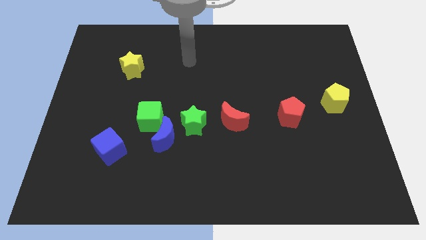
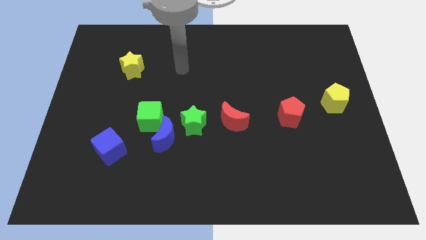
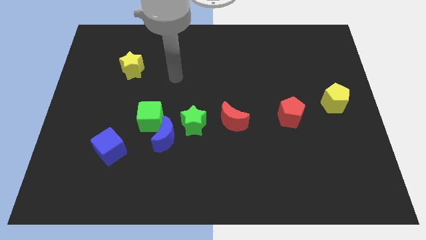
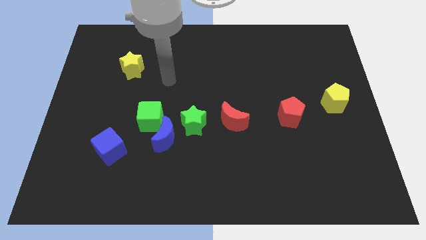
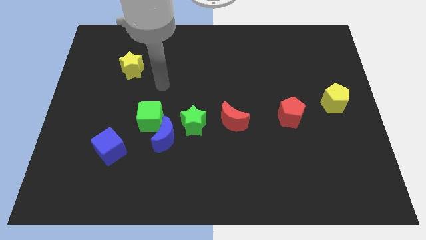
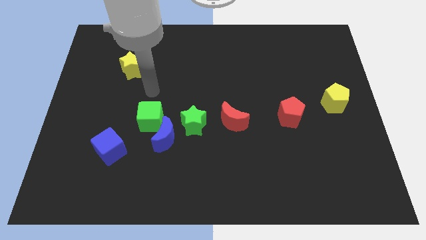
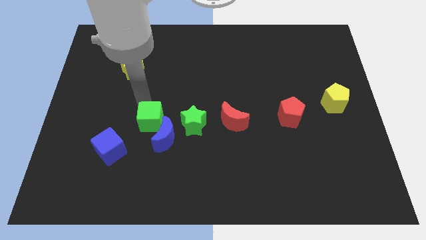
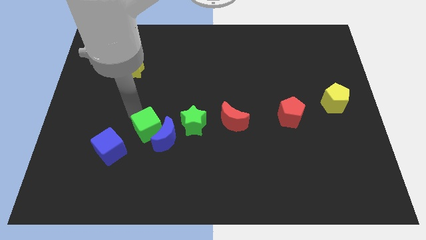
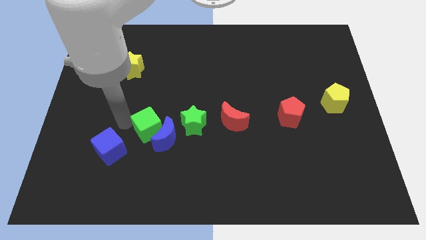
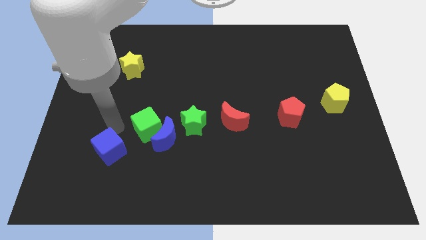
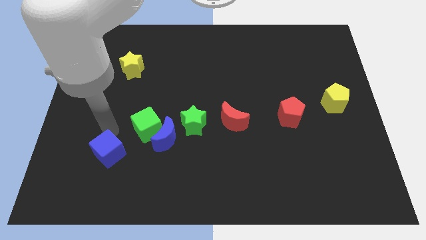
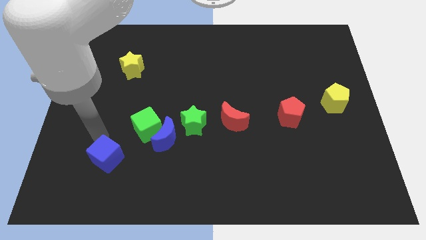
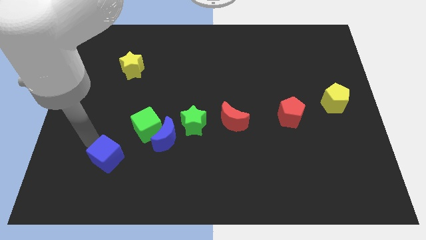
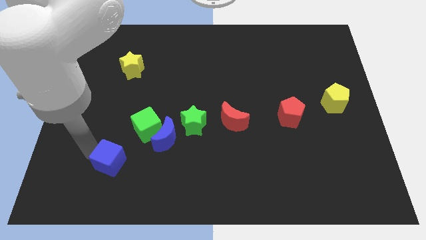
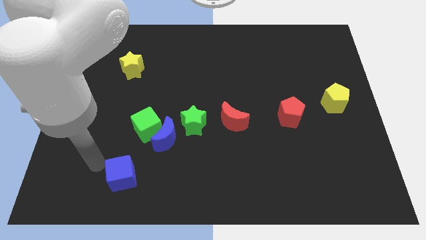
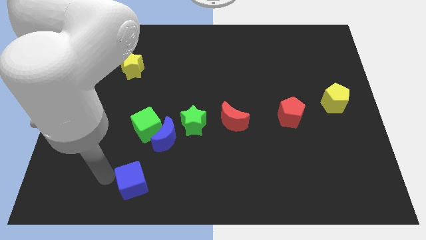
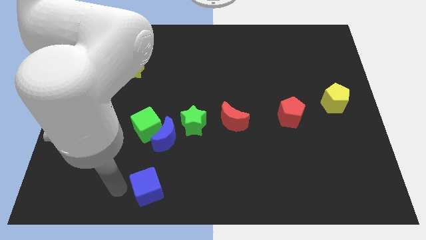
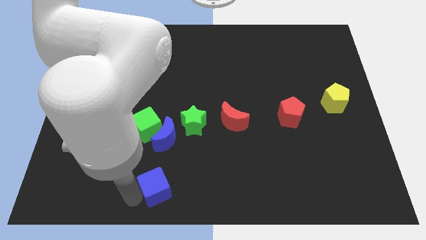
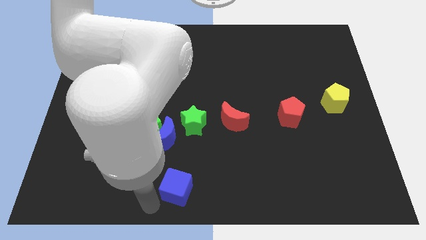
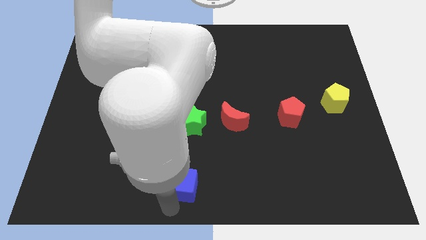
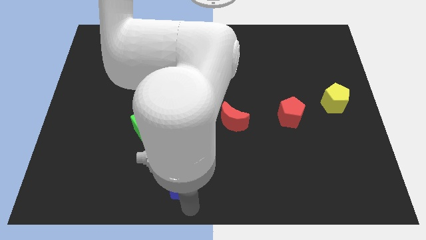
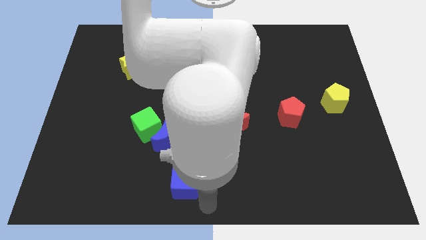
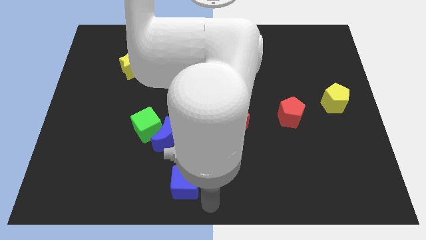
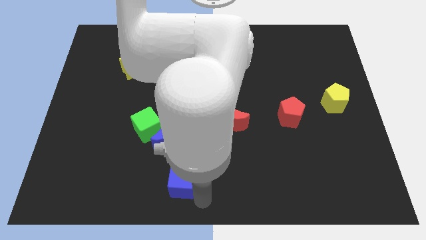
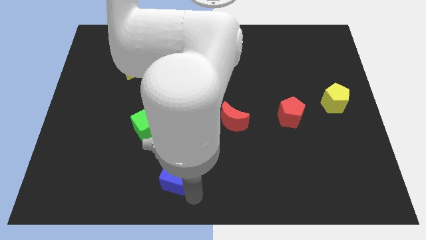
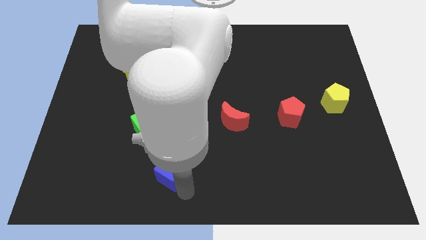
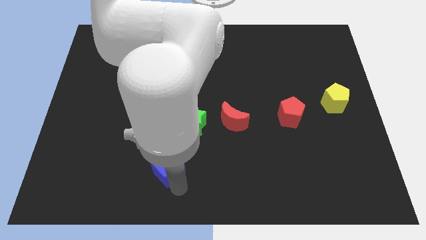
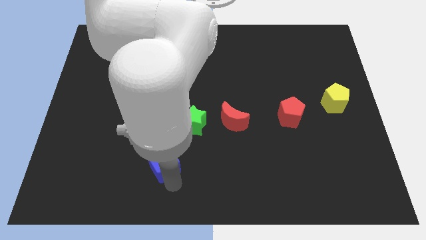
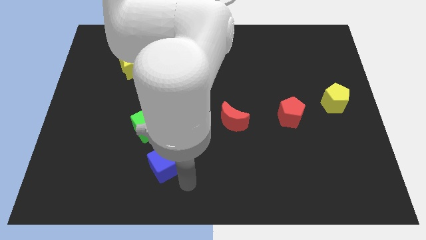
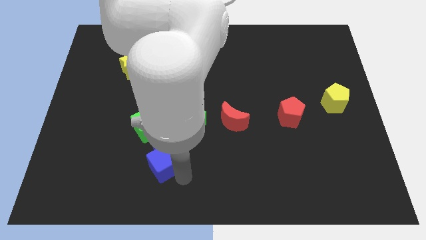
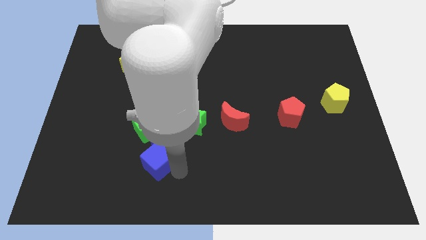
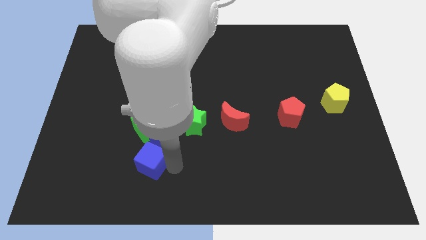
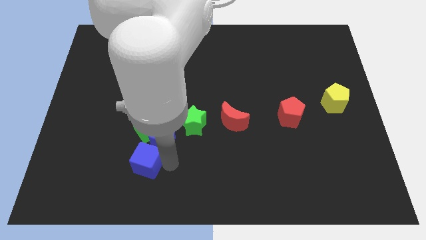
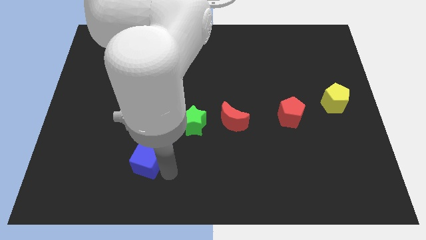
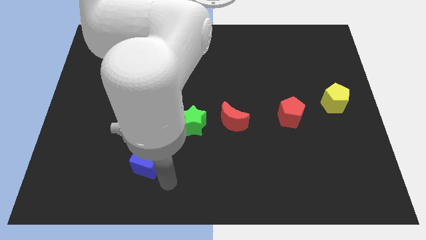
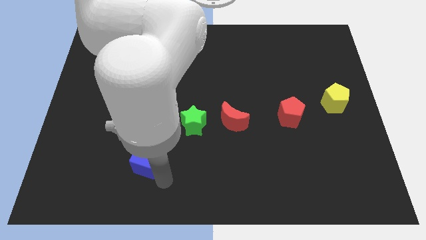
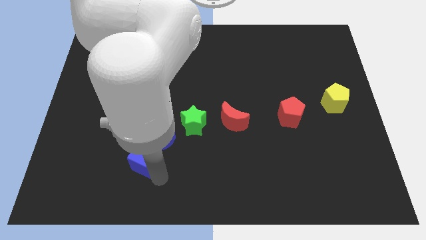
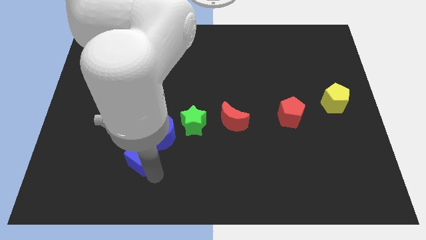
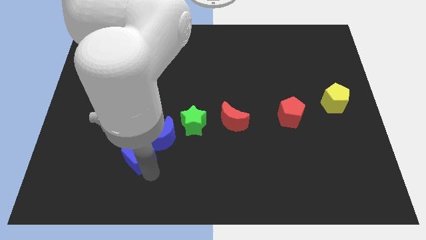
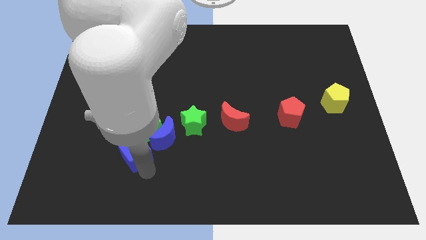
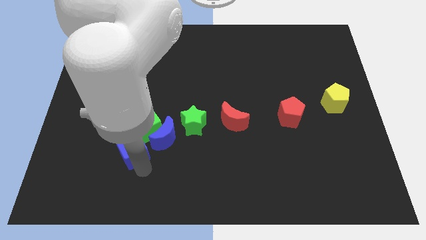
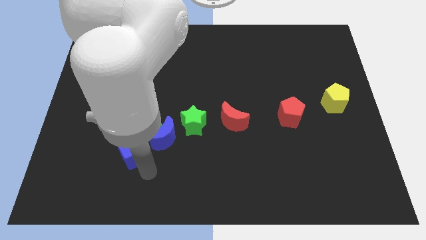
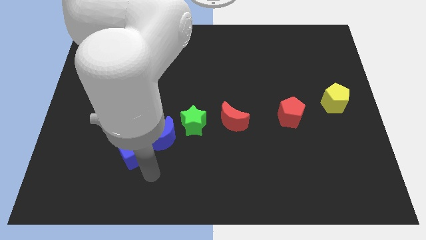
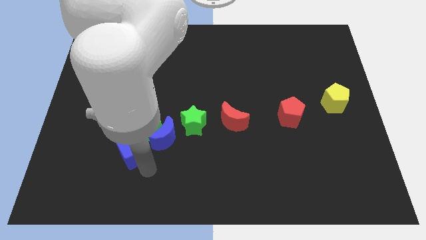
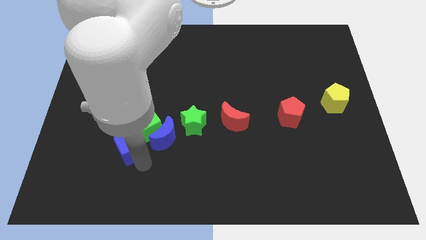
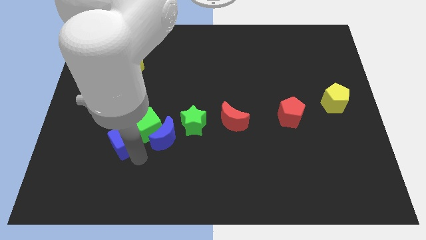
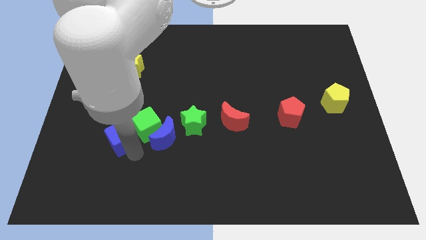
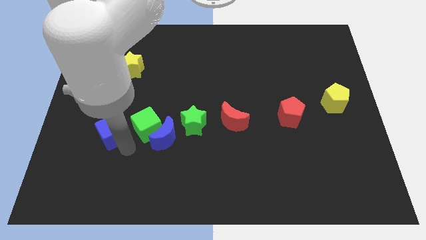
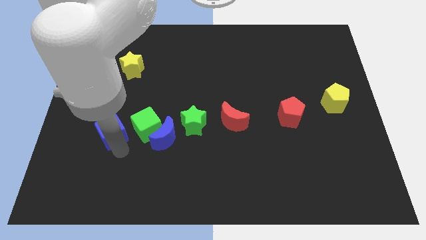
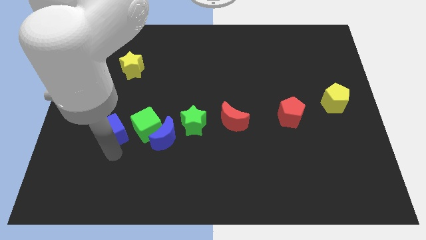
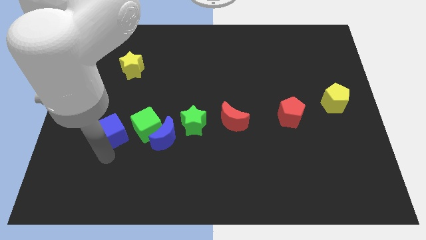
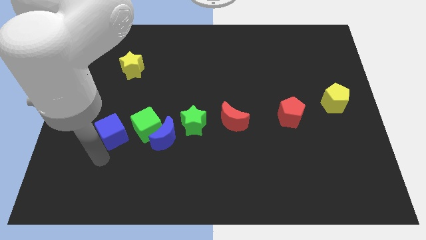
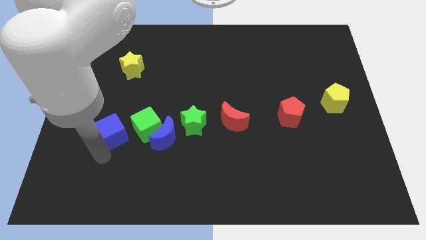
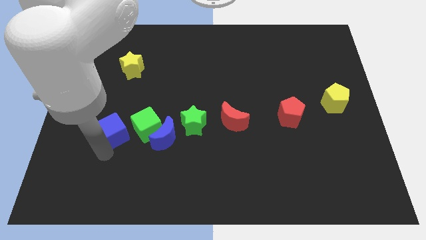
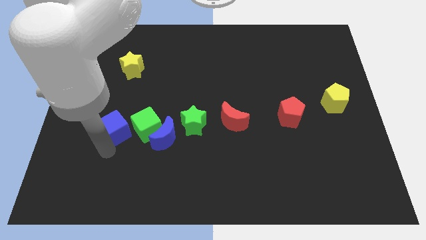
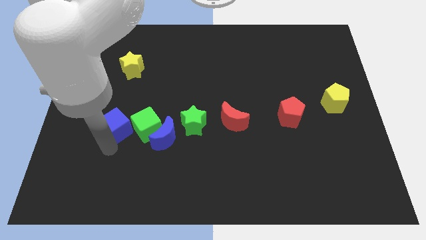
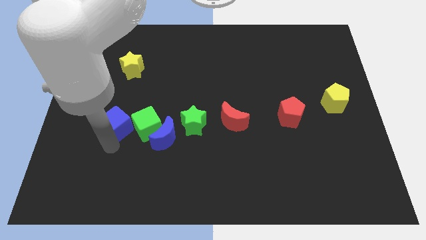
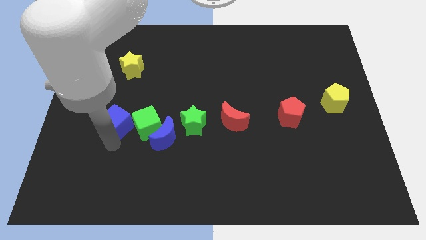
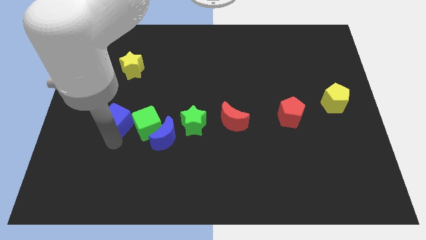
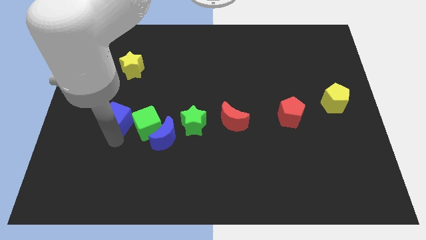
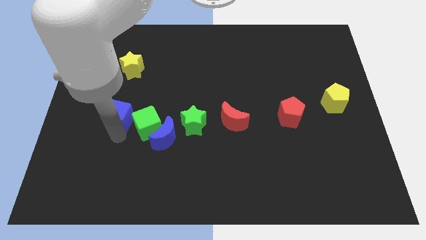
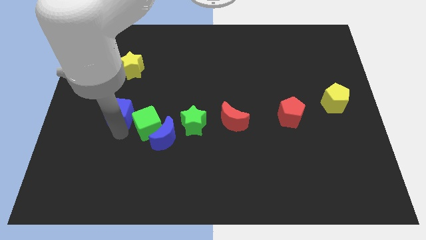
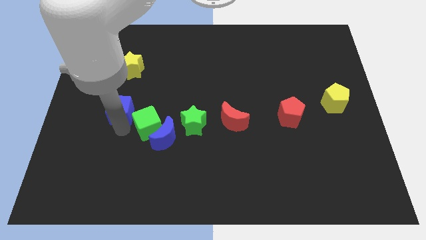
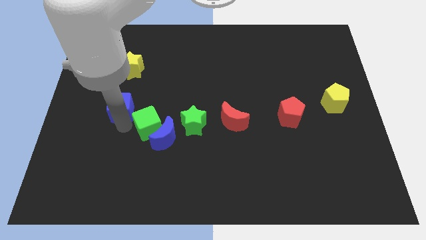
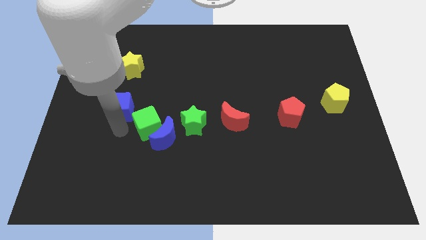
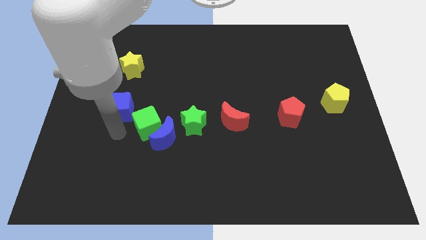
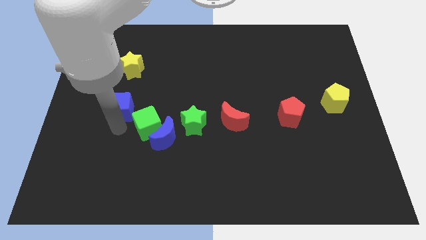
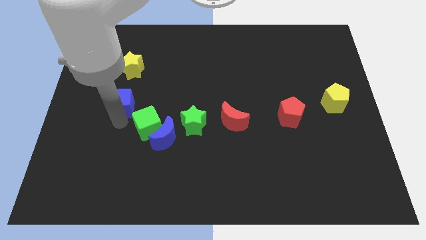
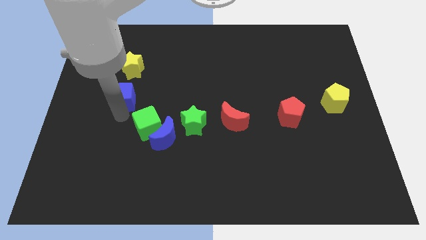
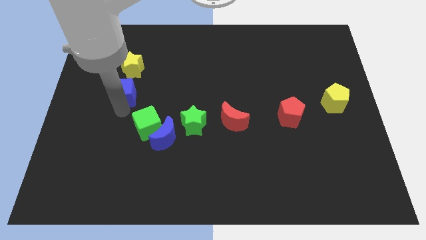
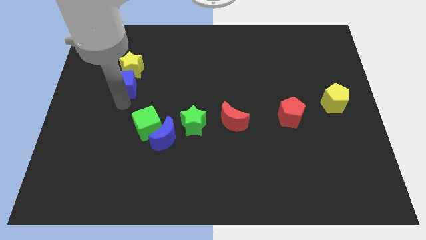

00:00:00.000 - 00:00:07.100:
move the blue cube close to the yellow star
